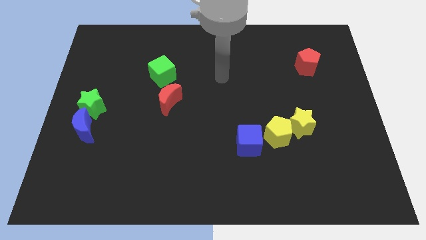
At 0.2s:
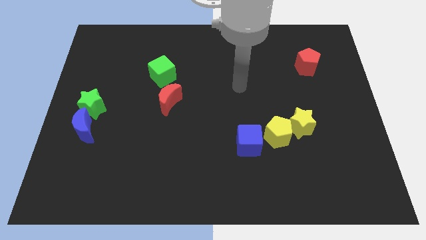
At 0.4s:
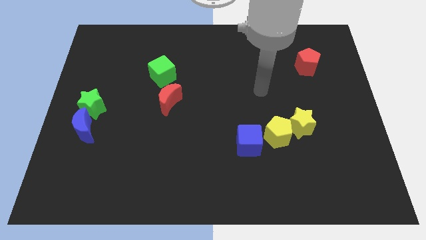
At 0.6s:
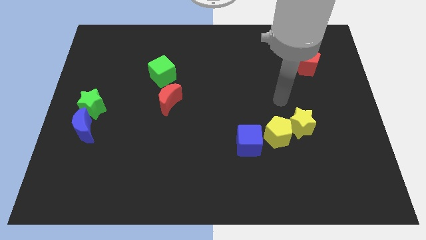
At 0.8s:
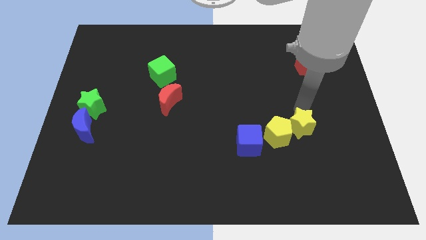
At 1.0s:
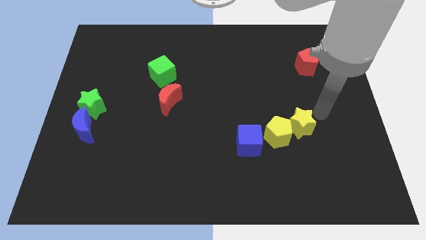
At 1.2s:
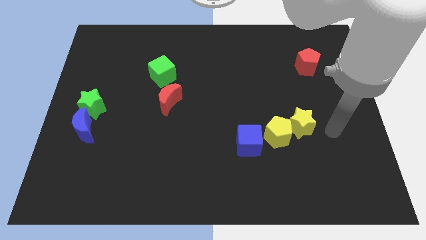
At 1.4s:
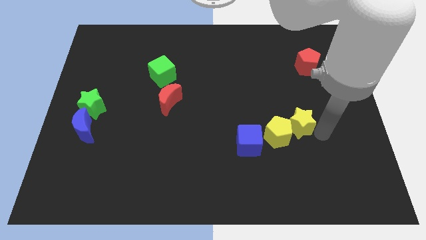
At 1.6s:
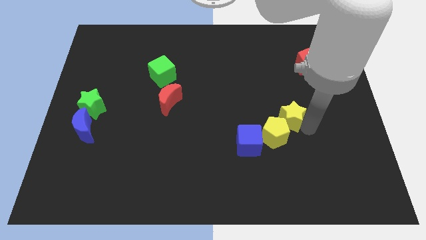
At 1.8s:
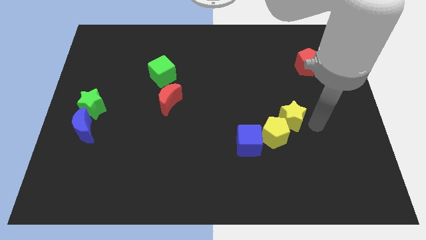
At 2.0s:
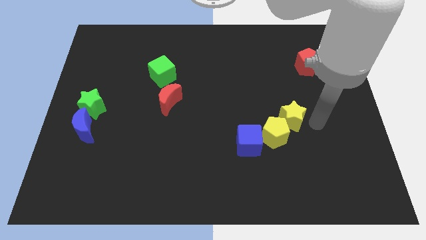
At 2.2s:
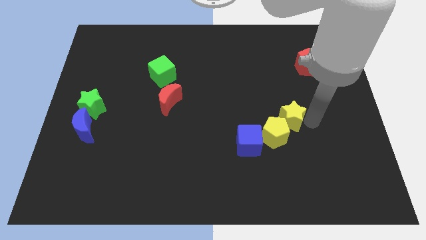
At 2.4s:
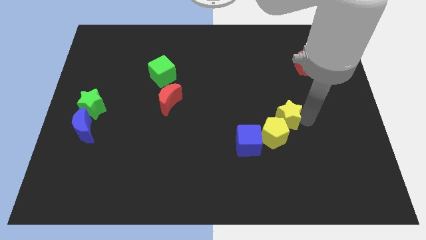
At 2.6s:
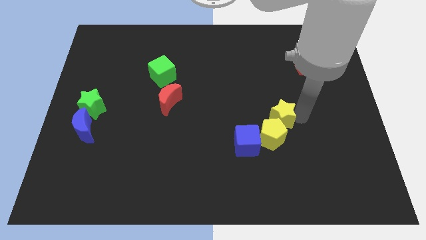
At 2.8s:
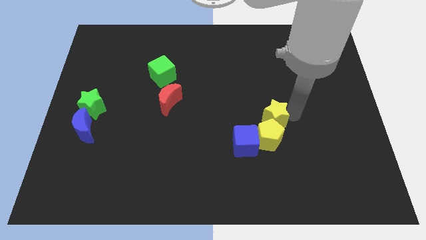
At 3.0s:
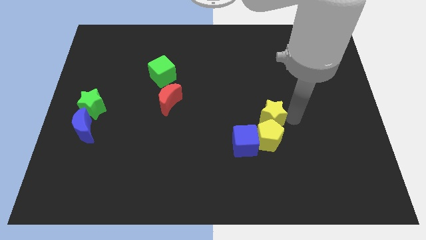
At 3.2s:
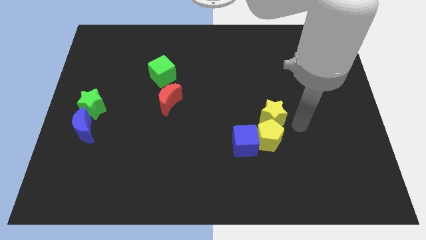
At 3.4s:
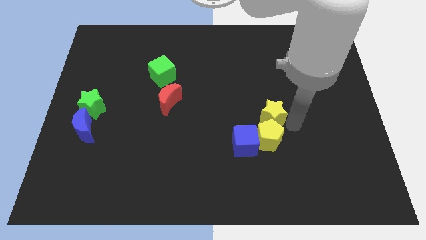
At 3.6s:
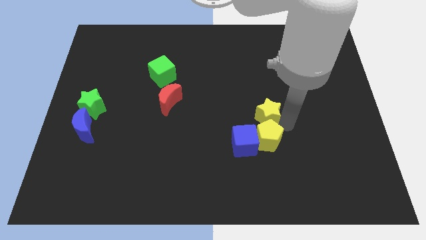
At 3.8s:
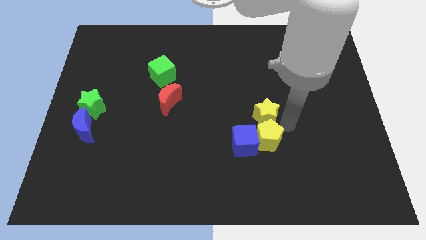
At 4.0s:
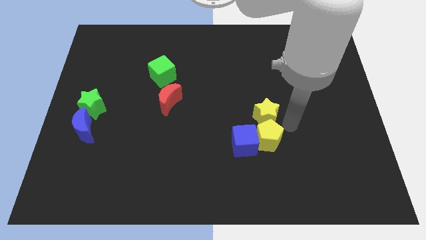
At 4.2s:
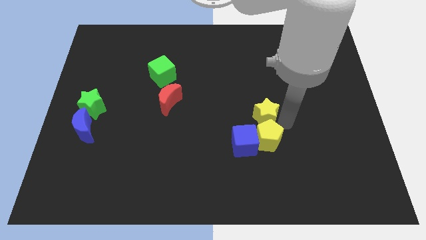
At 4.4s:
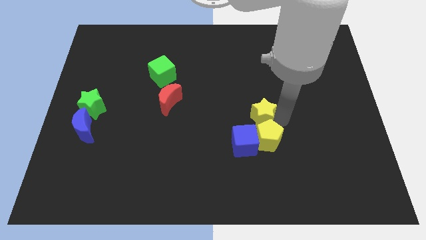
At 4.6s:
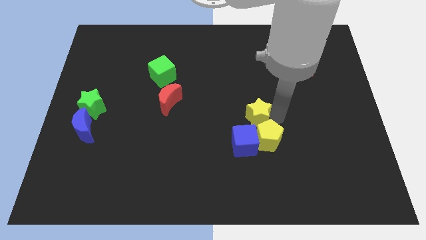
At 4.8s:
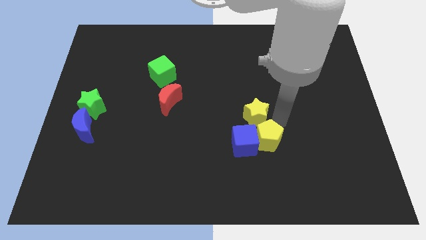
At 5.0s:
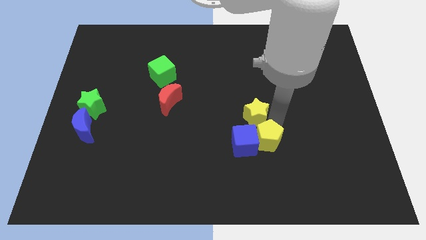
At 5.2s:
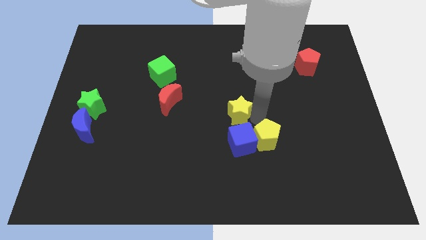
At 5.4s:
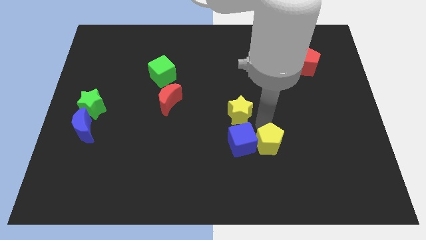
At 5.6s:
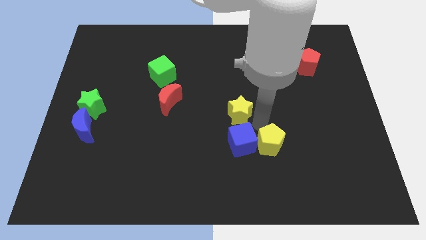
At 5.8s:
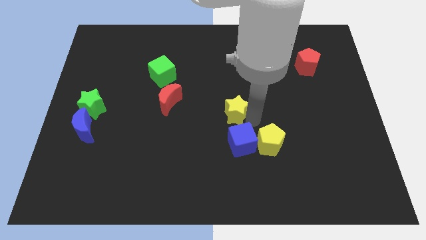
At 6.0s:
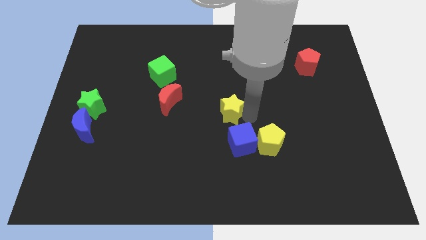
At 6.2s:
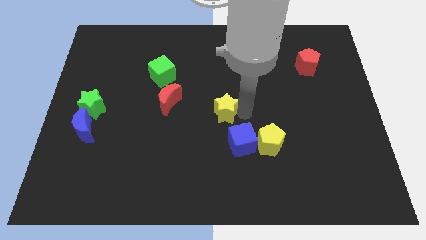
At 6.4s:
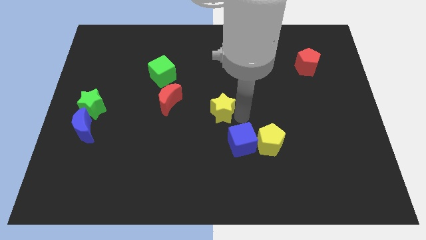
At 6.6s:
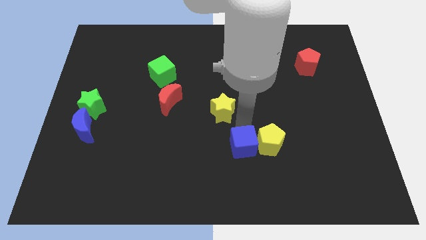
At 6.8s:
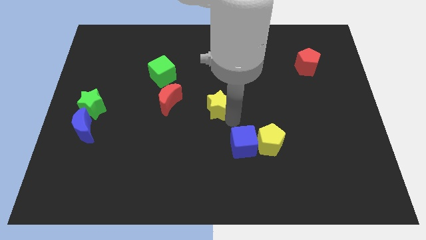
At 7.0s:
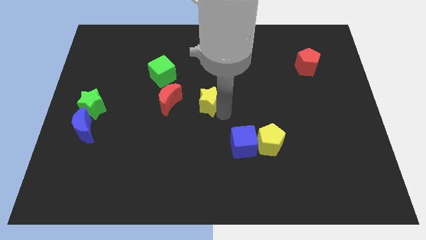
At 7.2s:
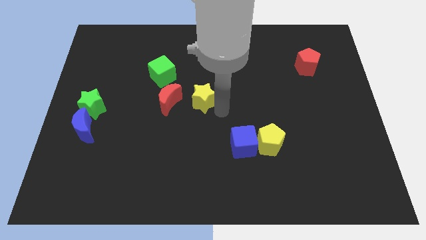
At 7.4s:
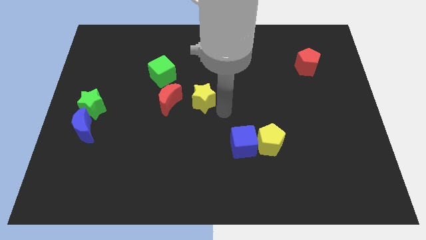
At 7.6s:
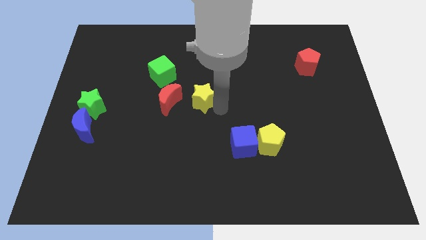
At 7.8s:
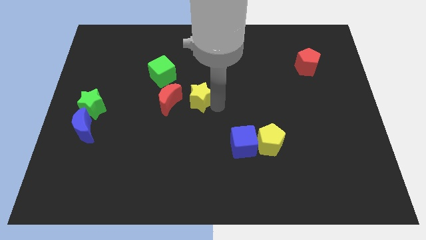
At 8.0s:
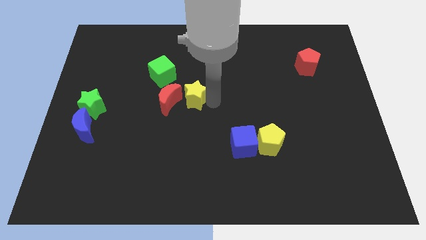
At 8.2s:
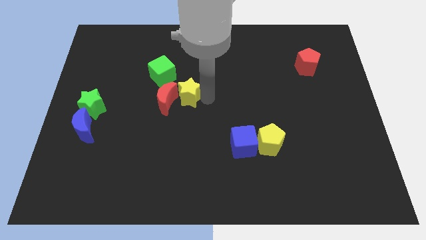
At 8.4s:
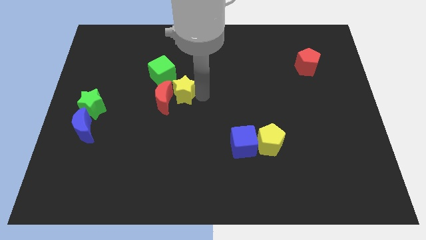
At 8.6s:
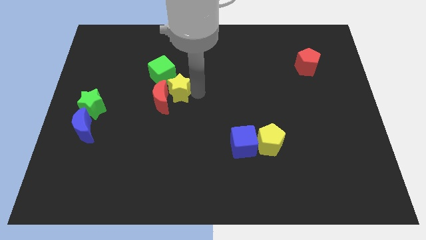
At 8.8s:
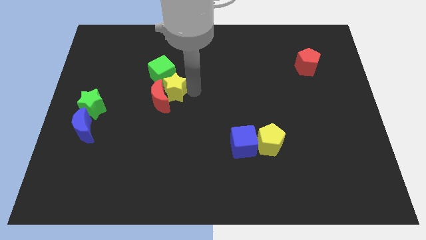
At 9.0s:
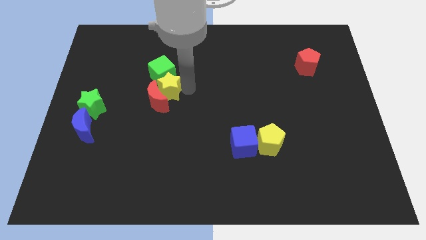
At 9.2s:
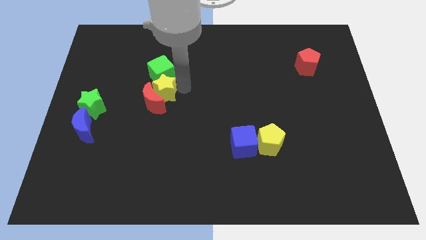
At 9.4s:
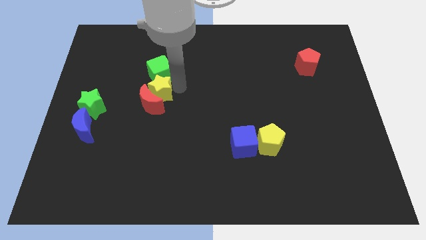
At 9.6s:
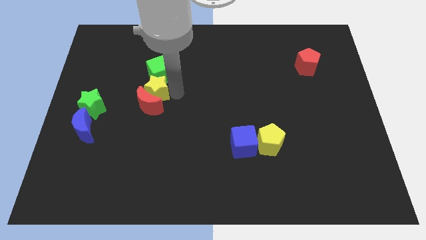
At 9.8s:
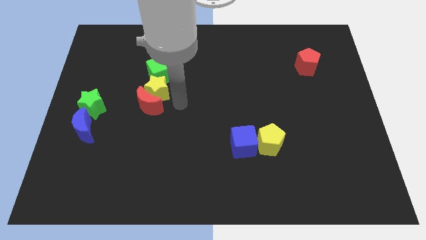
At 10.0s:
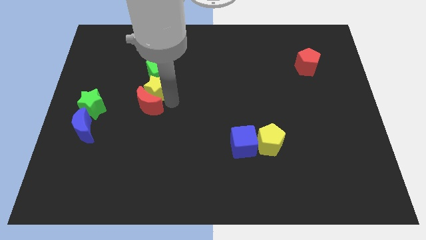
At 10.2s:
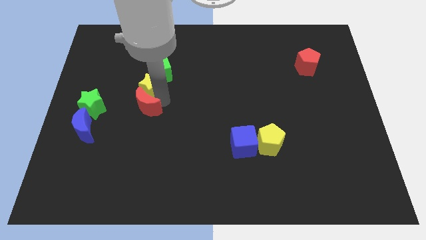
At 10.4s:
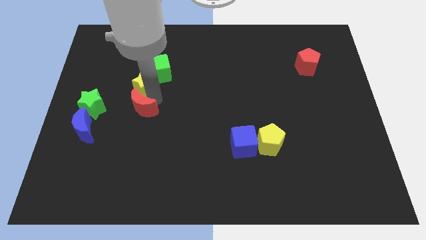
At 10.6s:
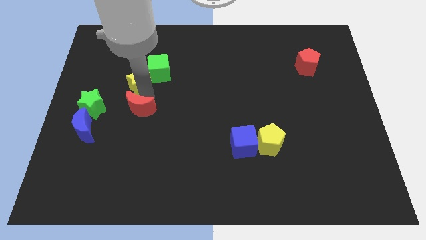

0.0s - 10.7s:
move the yellow star to the left of the green cube

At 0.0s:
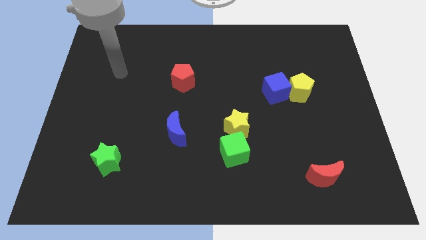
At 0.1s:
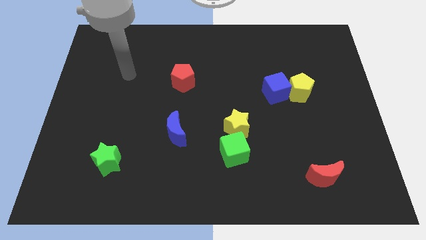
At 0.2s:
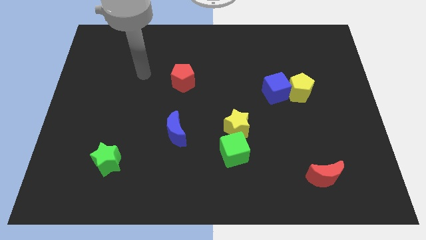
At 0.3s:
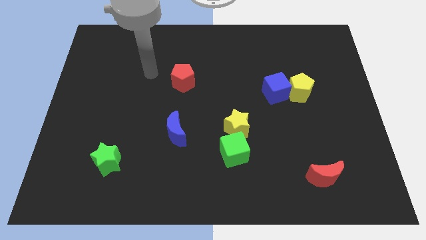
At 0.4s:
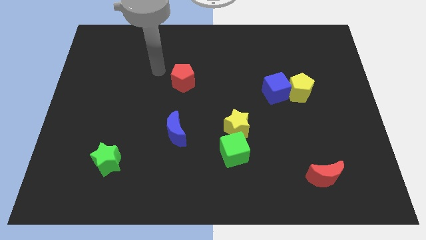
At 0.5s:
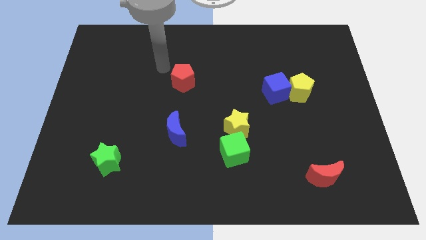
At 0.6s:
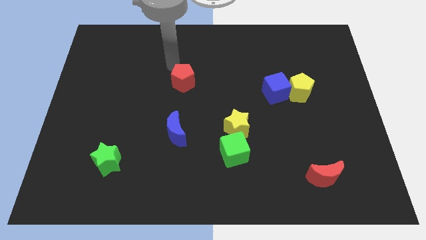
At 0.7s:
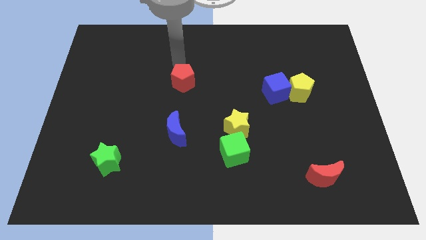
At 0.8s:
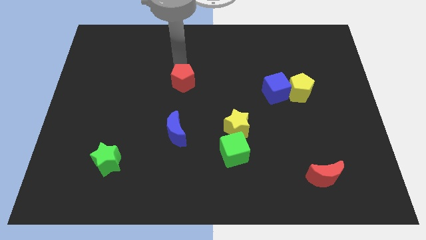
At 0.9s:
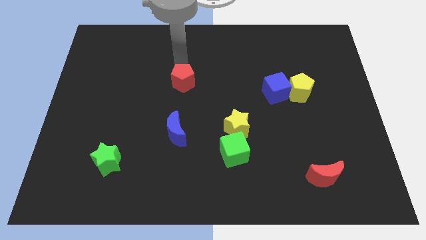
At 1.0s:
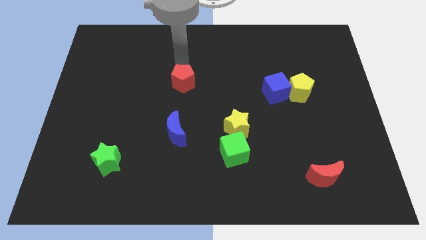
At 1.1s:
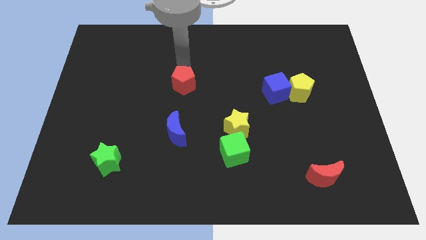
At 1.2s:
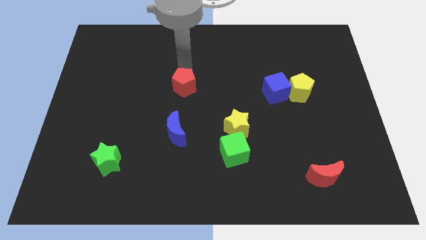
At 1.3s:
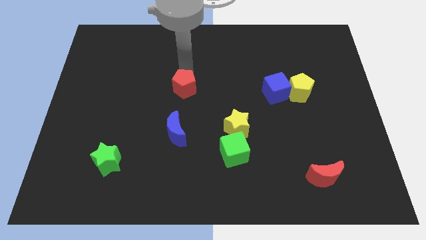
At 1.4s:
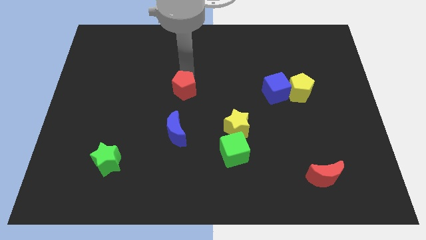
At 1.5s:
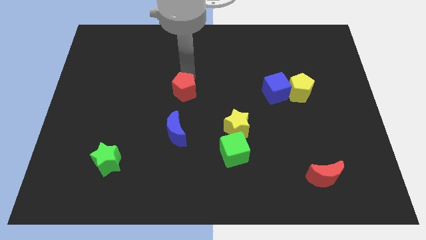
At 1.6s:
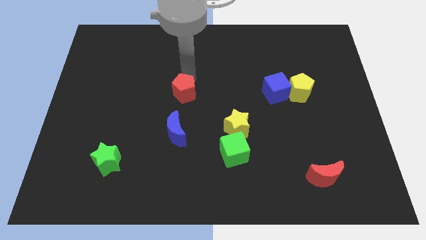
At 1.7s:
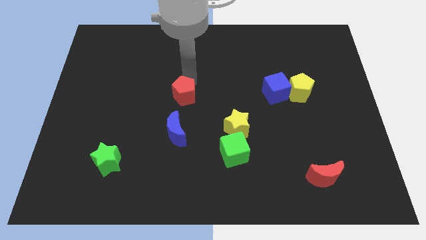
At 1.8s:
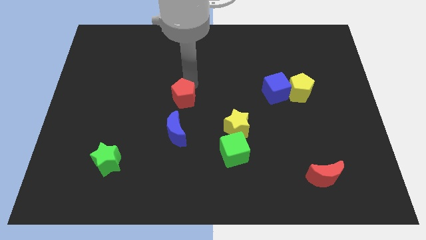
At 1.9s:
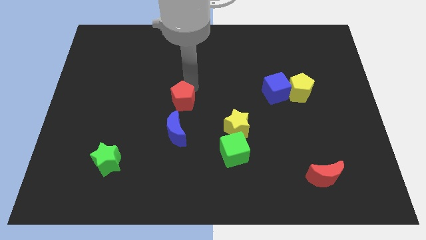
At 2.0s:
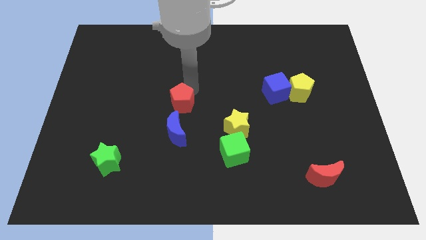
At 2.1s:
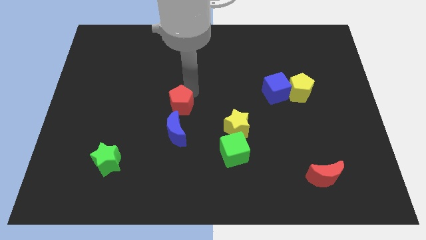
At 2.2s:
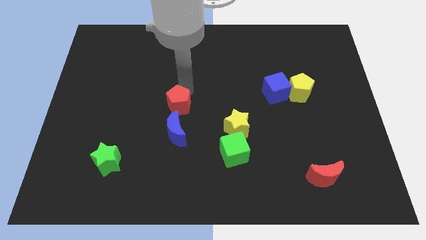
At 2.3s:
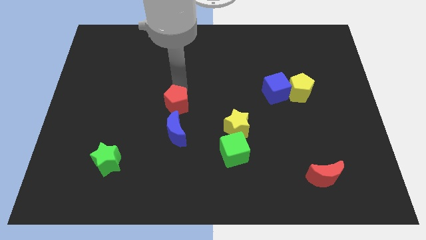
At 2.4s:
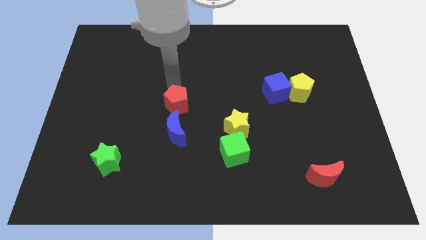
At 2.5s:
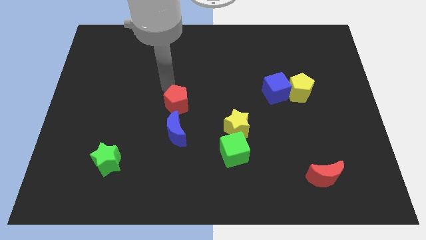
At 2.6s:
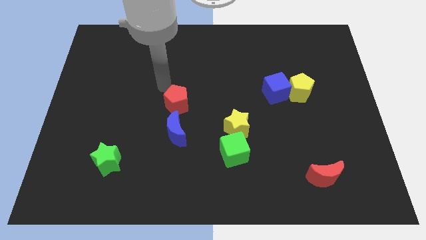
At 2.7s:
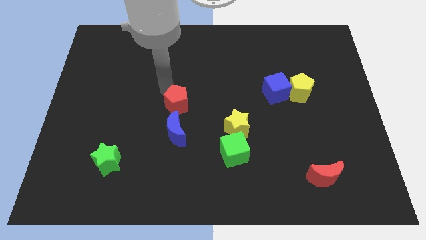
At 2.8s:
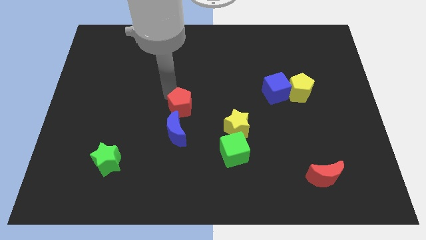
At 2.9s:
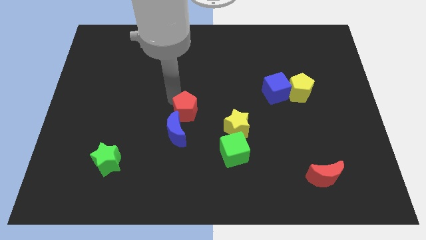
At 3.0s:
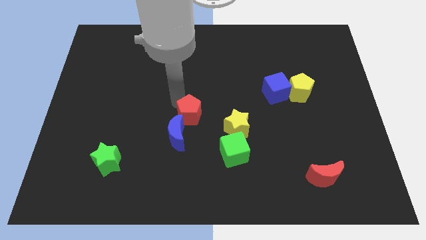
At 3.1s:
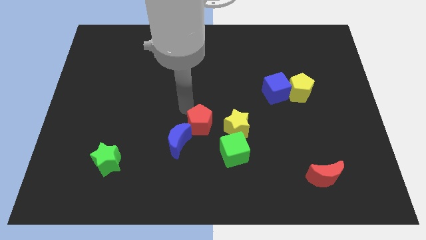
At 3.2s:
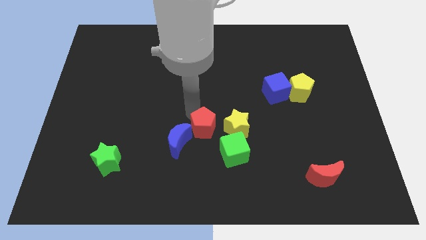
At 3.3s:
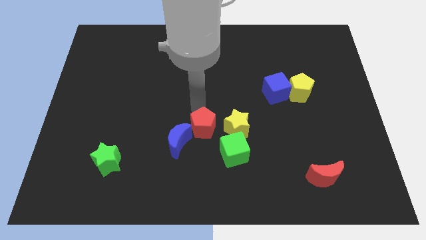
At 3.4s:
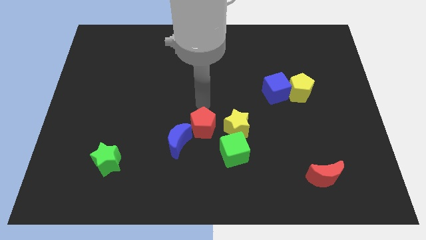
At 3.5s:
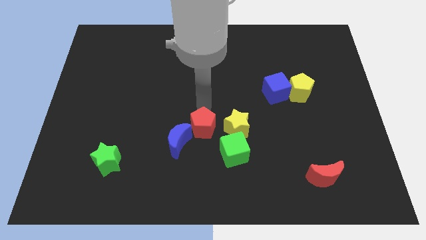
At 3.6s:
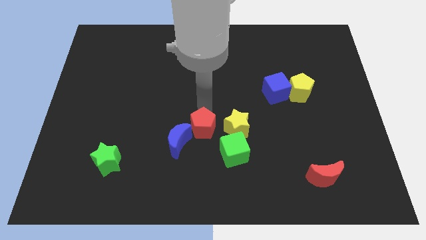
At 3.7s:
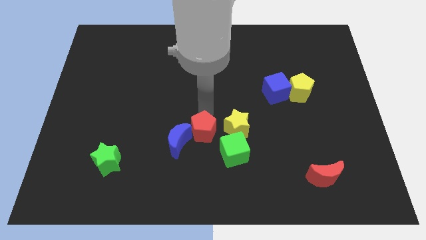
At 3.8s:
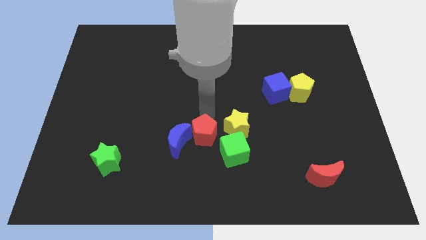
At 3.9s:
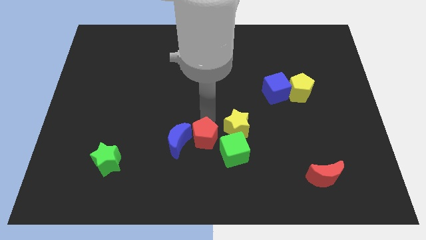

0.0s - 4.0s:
push the red pentagon to the bottom right of the blue moon
